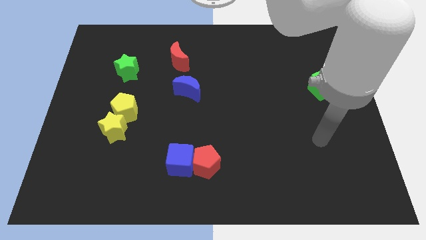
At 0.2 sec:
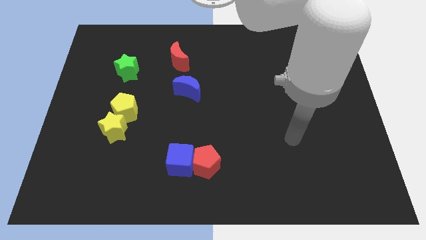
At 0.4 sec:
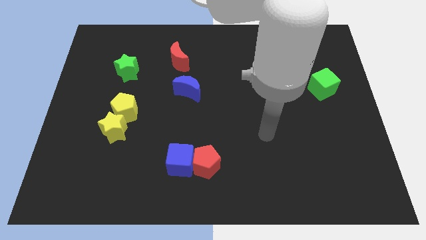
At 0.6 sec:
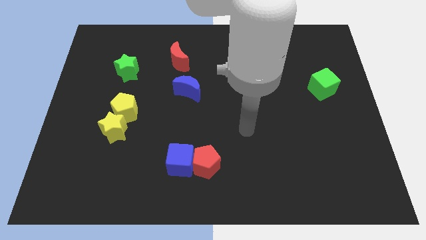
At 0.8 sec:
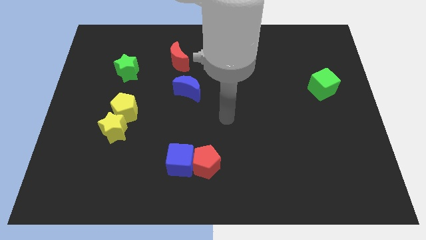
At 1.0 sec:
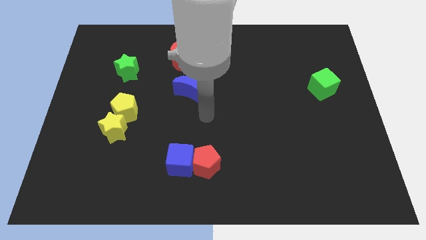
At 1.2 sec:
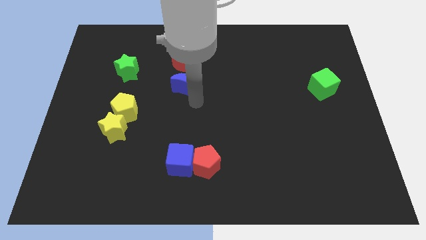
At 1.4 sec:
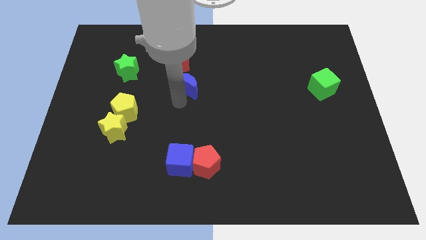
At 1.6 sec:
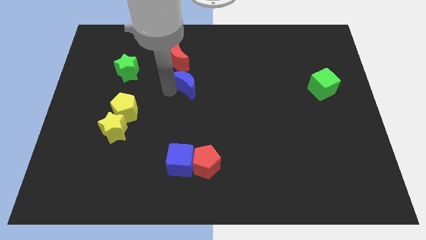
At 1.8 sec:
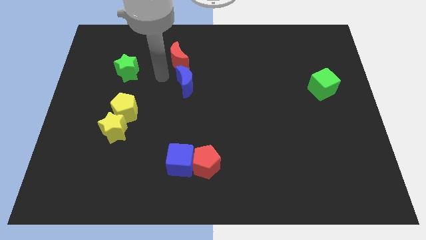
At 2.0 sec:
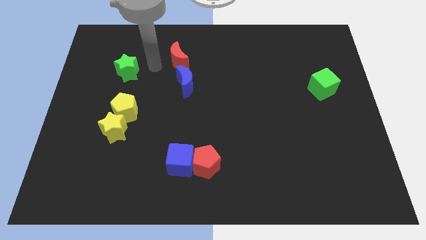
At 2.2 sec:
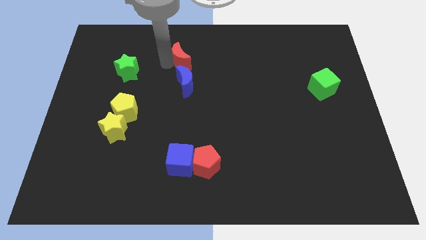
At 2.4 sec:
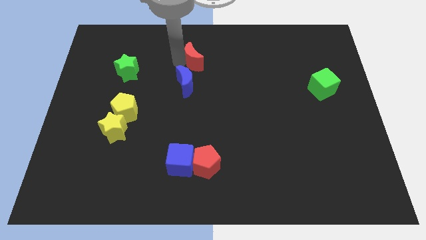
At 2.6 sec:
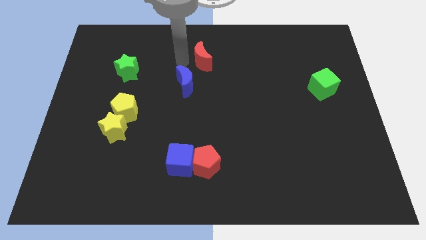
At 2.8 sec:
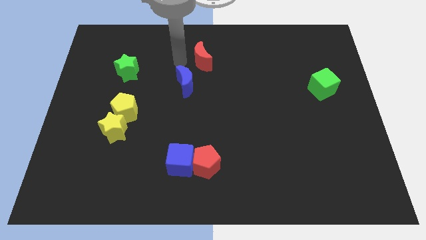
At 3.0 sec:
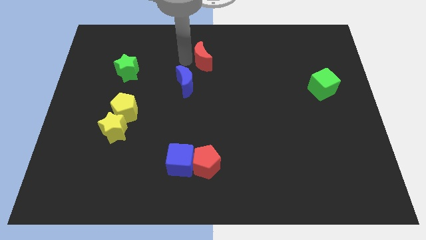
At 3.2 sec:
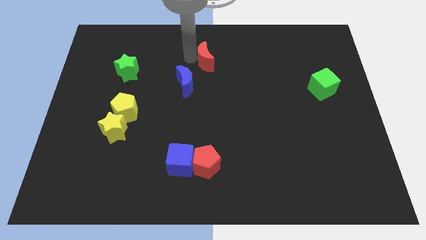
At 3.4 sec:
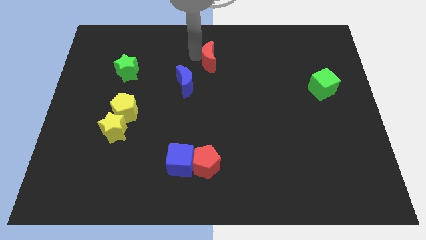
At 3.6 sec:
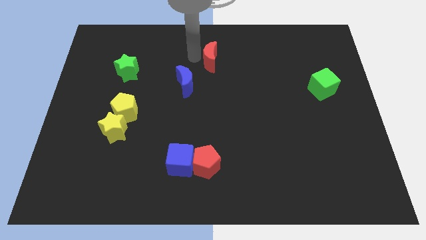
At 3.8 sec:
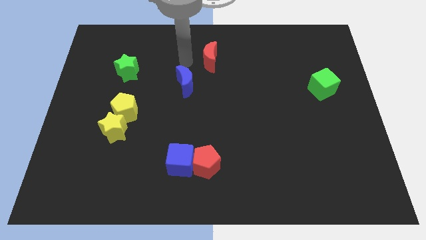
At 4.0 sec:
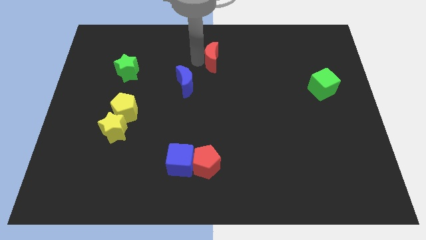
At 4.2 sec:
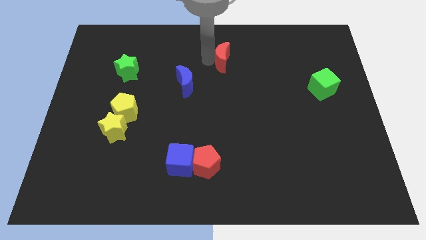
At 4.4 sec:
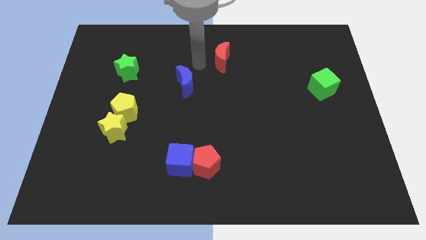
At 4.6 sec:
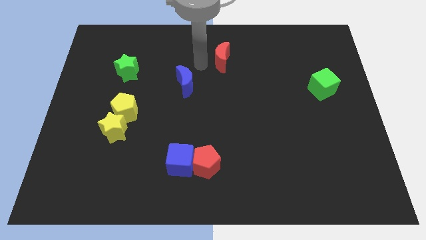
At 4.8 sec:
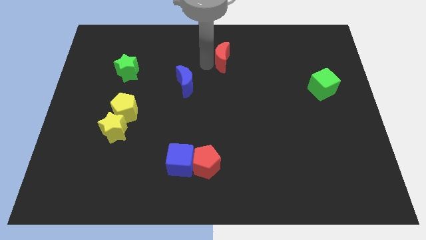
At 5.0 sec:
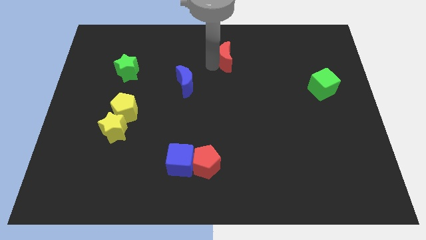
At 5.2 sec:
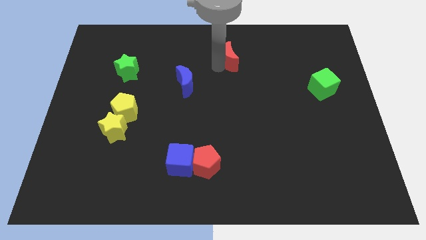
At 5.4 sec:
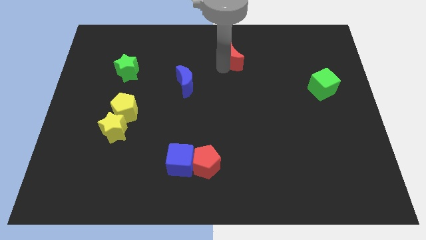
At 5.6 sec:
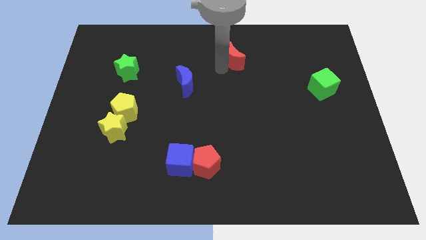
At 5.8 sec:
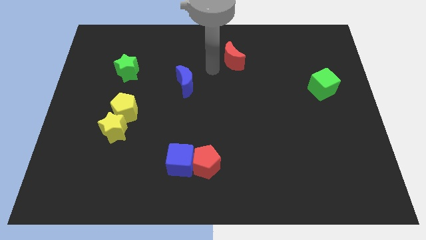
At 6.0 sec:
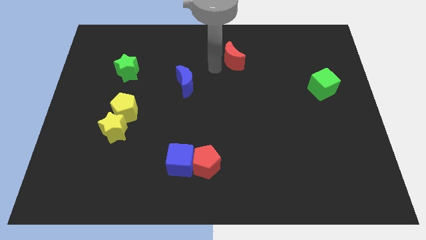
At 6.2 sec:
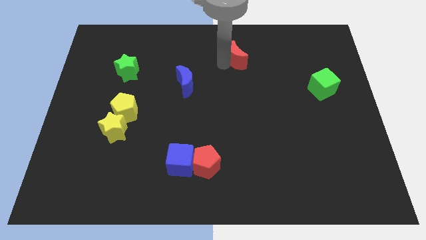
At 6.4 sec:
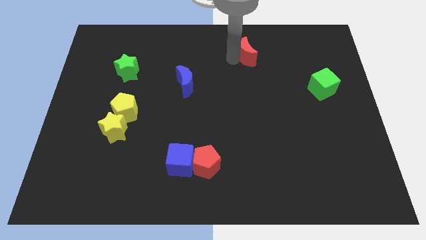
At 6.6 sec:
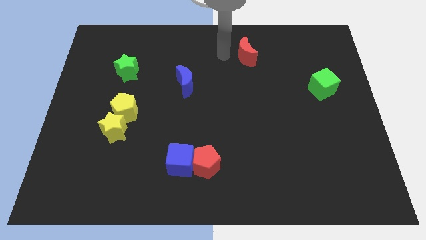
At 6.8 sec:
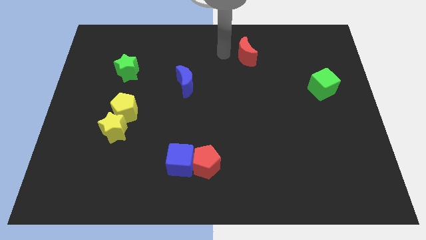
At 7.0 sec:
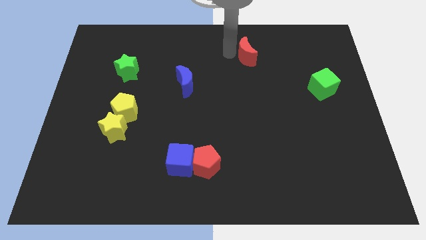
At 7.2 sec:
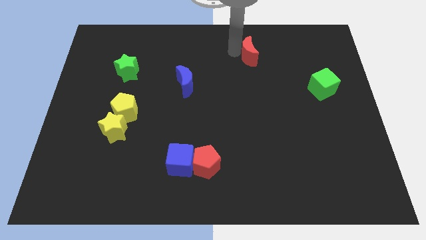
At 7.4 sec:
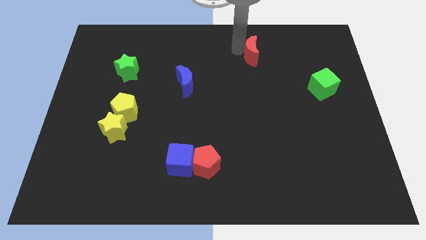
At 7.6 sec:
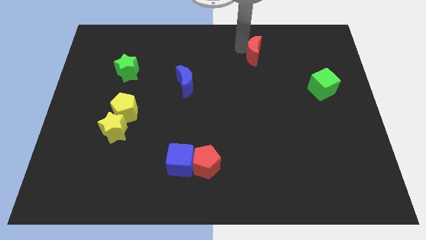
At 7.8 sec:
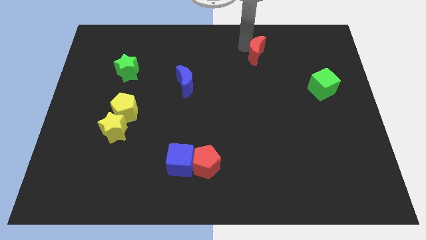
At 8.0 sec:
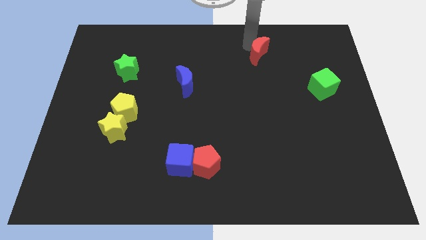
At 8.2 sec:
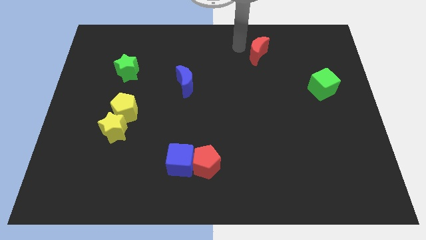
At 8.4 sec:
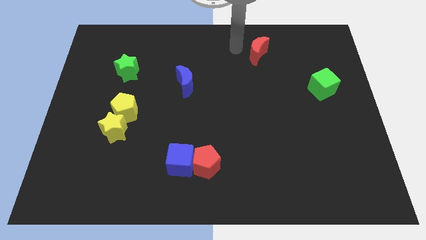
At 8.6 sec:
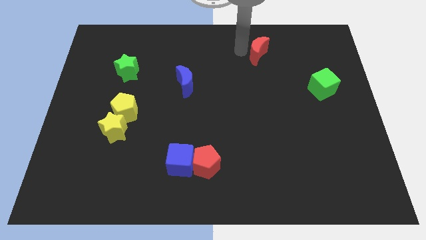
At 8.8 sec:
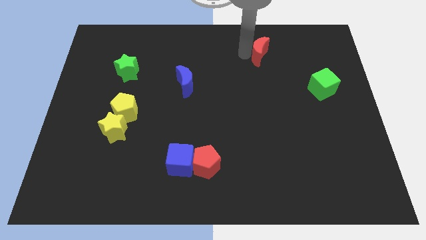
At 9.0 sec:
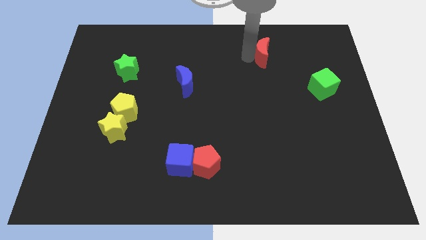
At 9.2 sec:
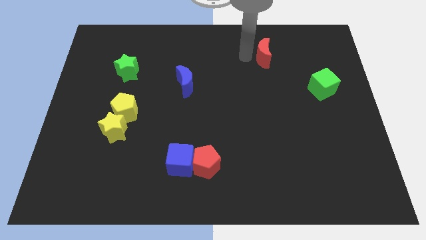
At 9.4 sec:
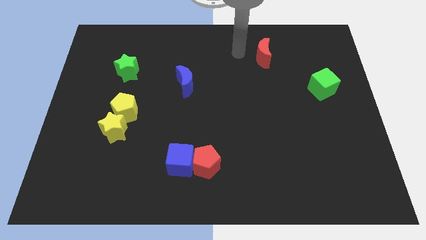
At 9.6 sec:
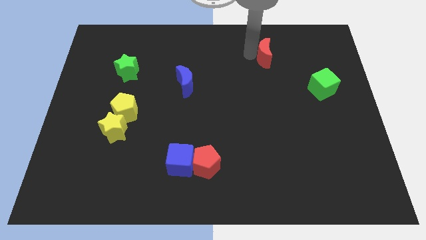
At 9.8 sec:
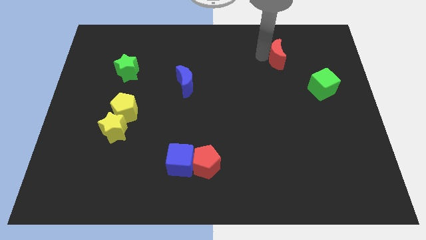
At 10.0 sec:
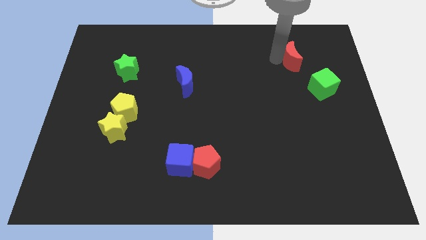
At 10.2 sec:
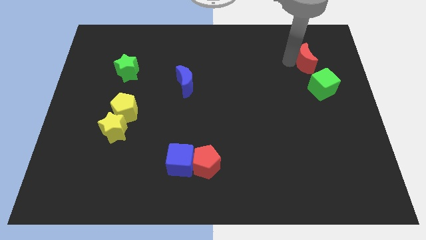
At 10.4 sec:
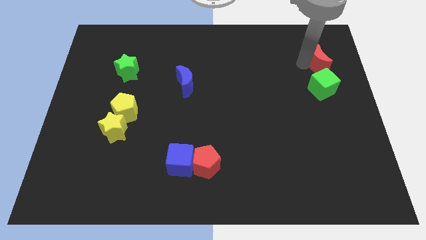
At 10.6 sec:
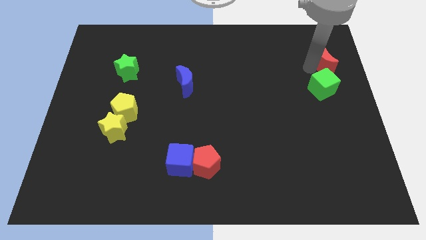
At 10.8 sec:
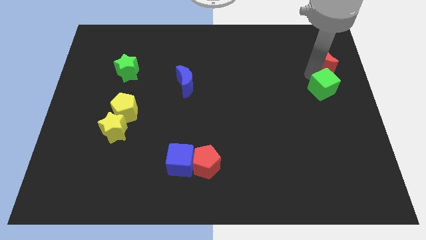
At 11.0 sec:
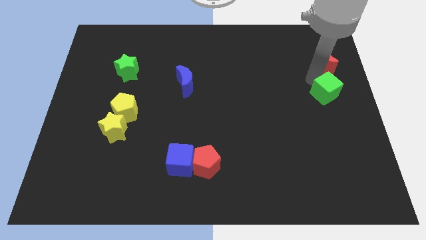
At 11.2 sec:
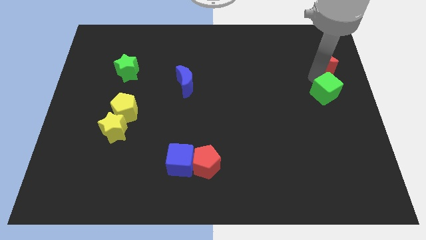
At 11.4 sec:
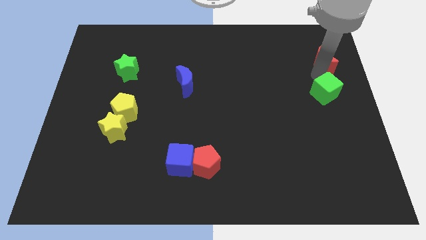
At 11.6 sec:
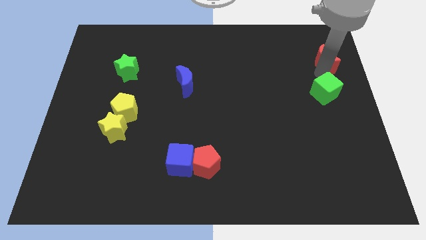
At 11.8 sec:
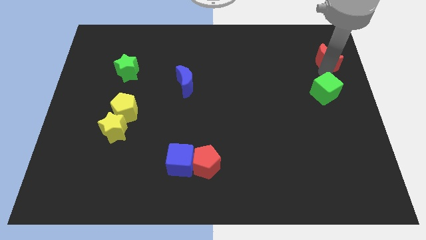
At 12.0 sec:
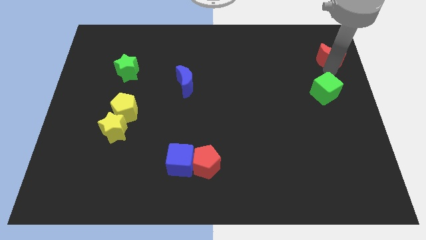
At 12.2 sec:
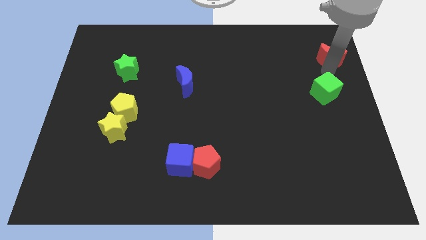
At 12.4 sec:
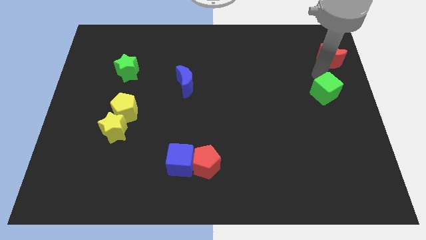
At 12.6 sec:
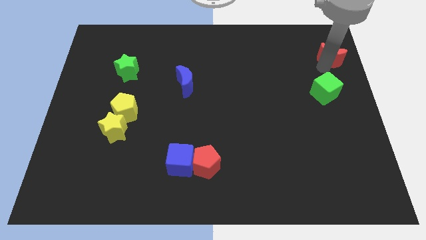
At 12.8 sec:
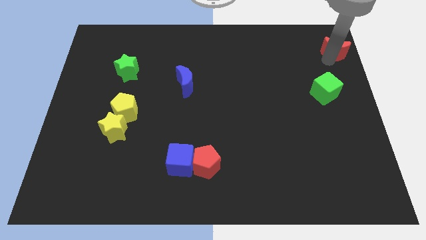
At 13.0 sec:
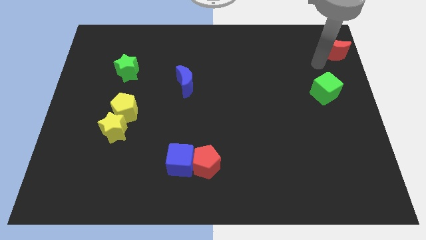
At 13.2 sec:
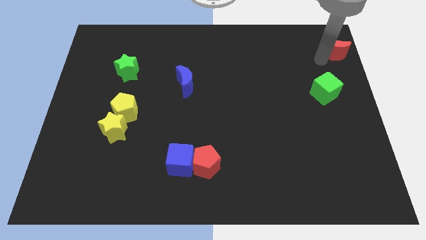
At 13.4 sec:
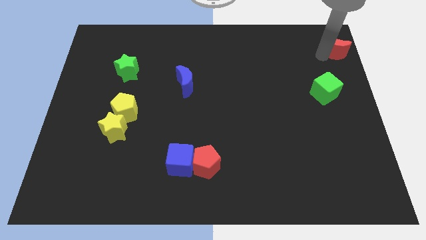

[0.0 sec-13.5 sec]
put the red moon to the top right corner

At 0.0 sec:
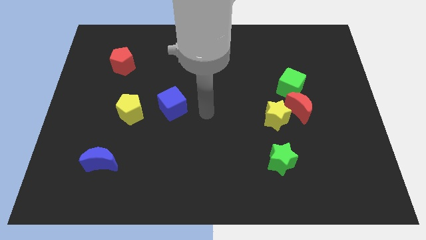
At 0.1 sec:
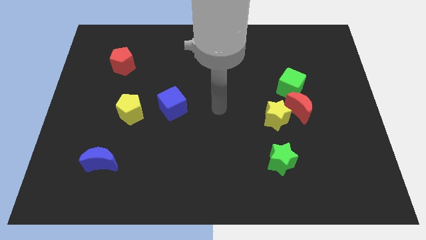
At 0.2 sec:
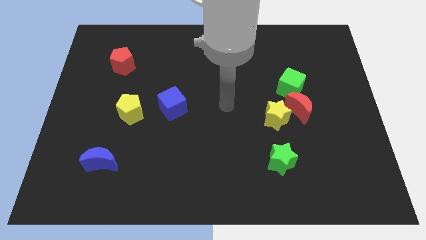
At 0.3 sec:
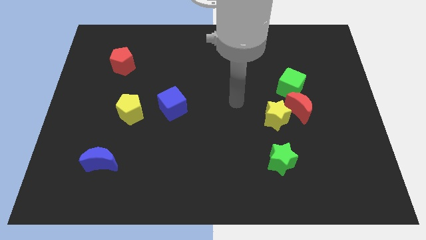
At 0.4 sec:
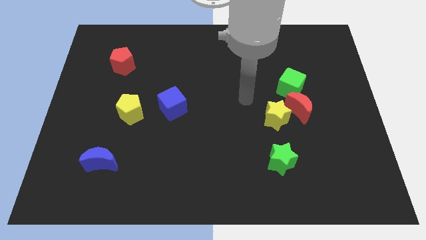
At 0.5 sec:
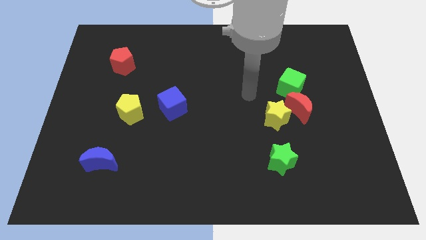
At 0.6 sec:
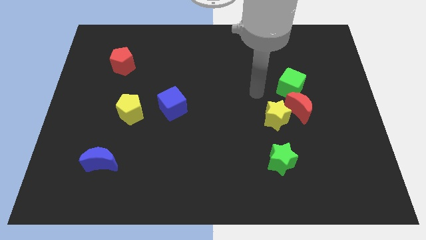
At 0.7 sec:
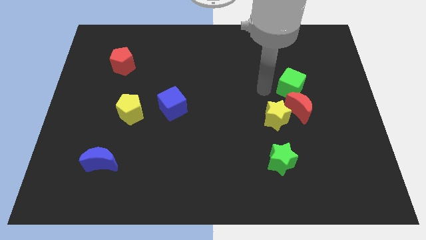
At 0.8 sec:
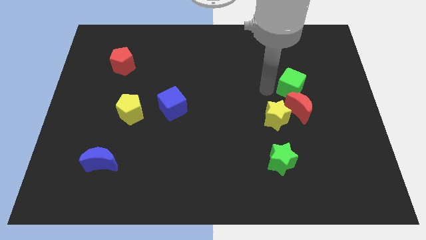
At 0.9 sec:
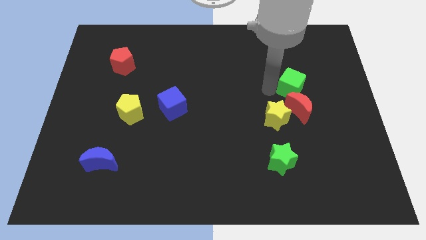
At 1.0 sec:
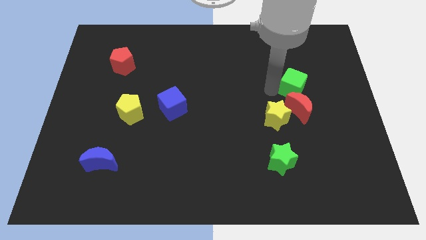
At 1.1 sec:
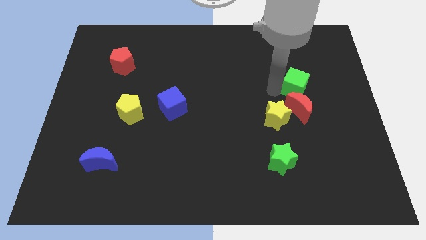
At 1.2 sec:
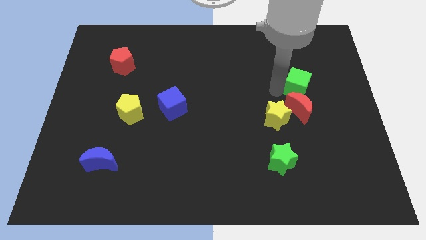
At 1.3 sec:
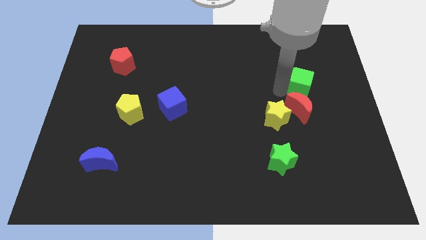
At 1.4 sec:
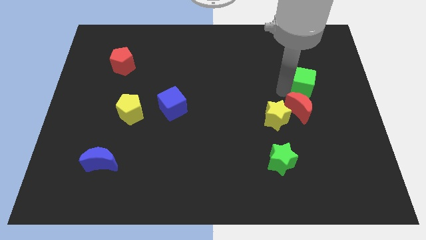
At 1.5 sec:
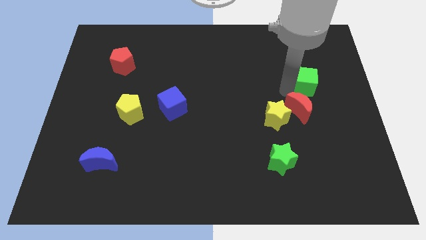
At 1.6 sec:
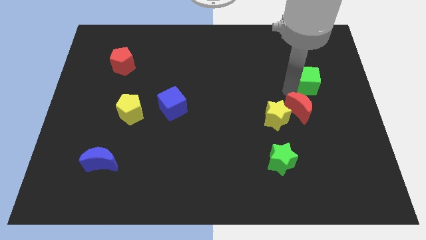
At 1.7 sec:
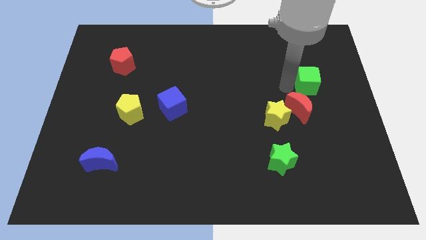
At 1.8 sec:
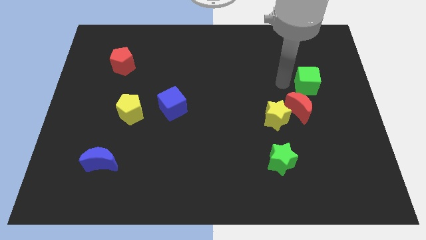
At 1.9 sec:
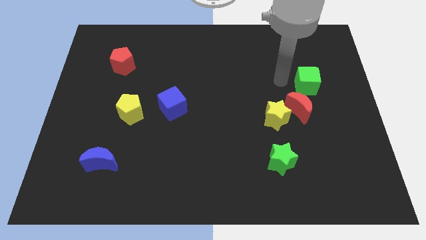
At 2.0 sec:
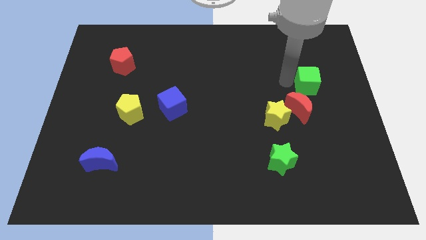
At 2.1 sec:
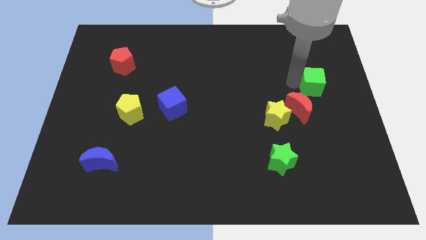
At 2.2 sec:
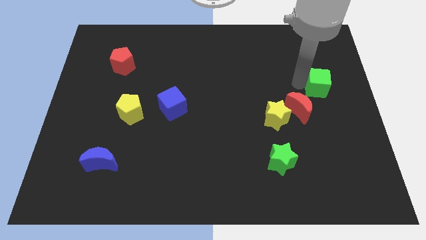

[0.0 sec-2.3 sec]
put the green cube to the right side of the board
